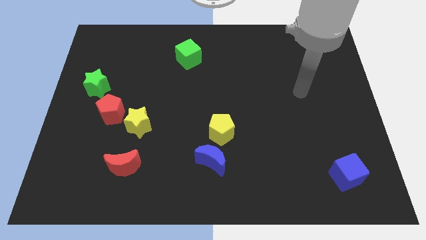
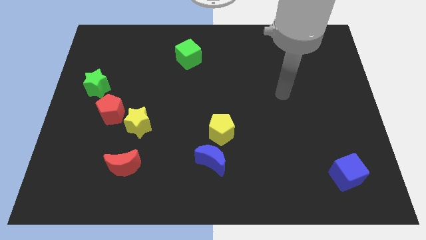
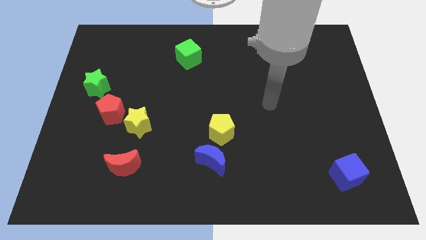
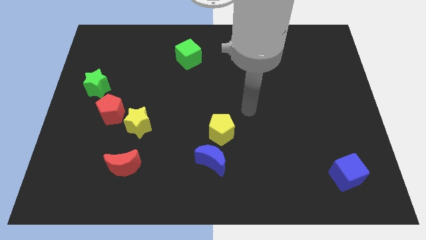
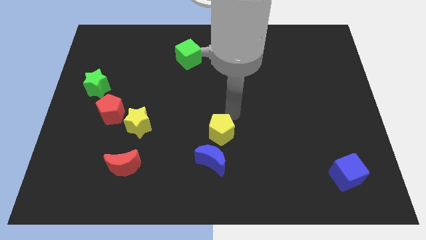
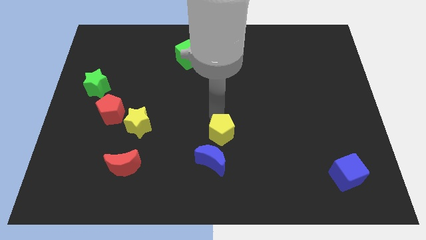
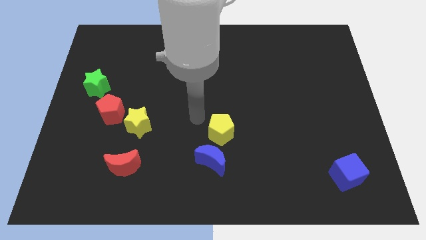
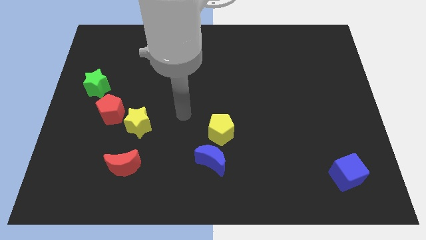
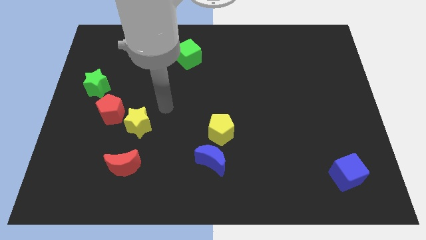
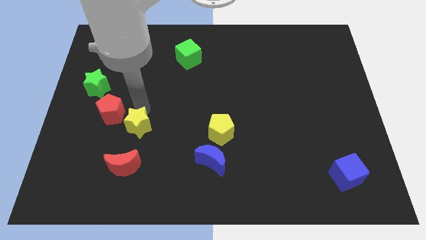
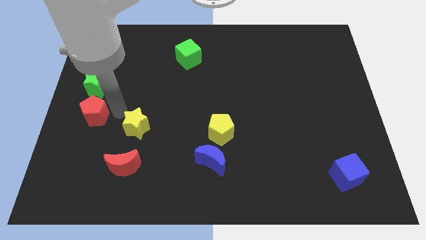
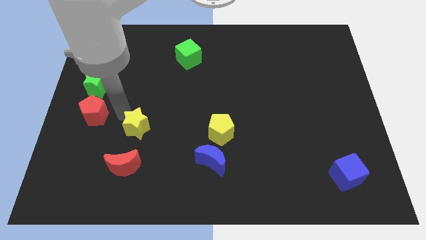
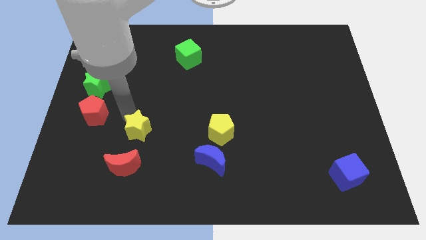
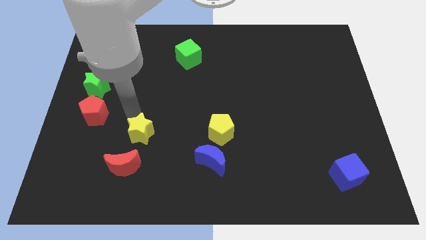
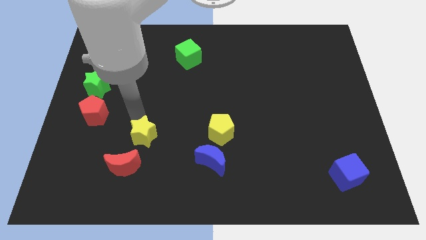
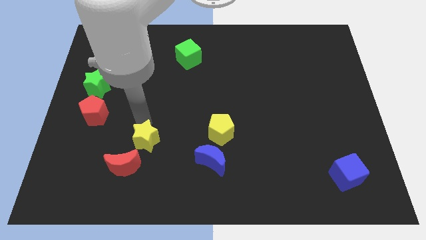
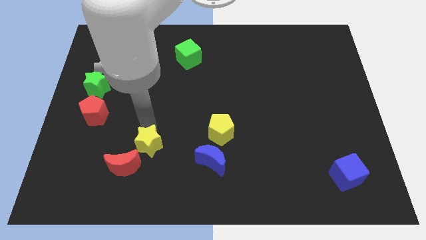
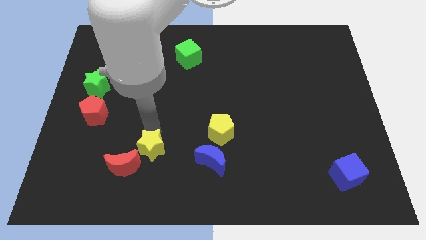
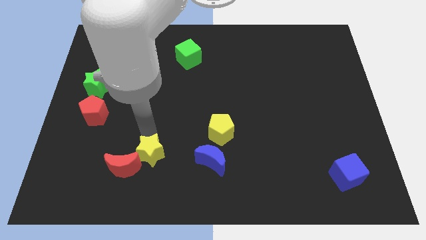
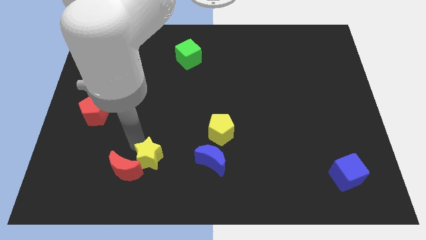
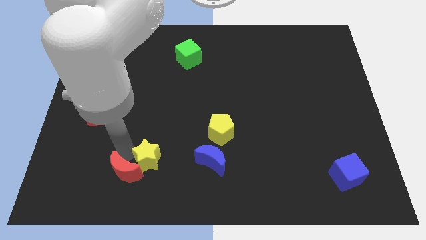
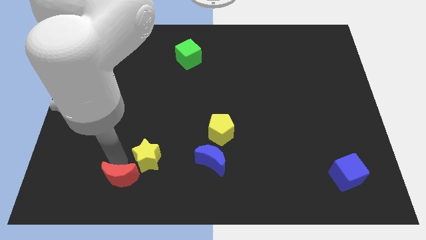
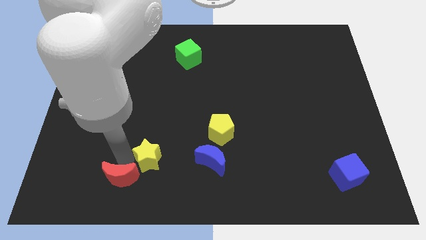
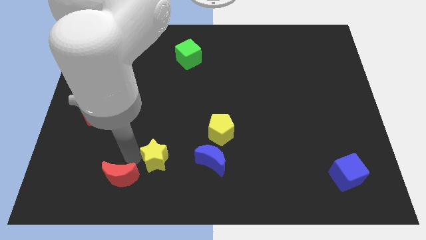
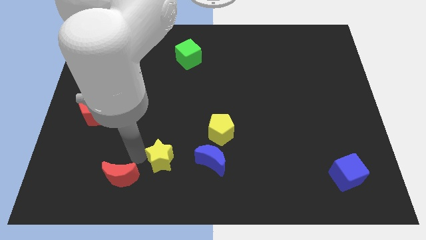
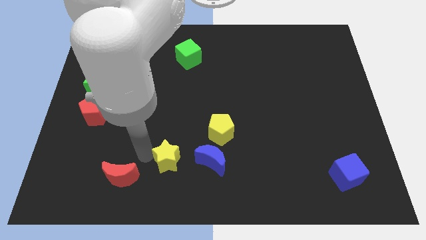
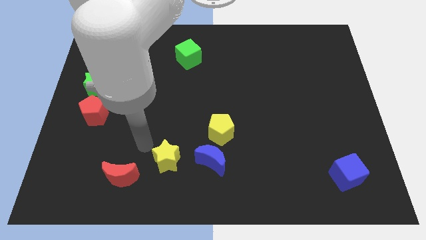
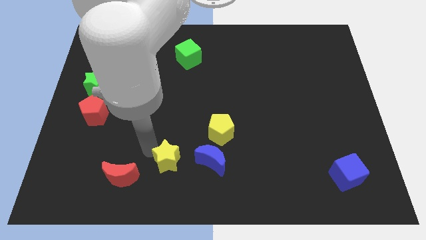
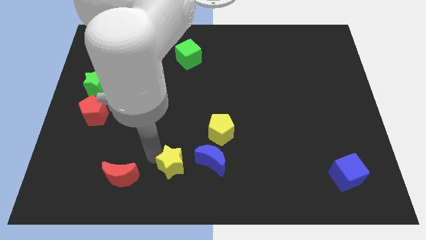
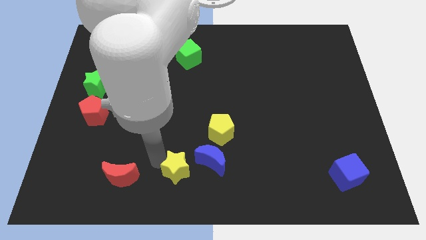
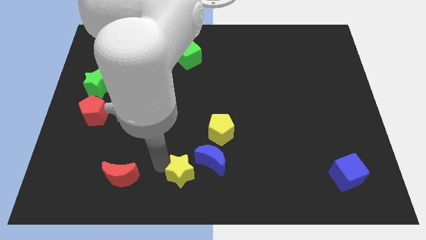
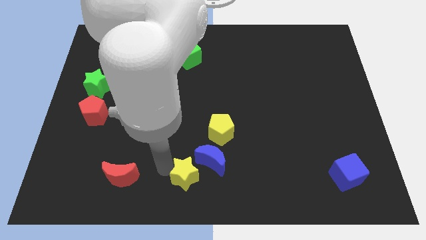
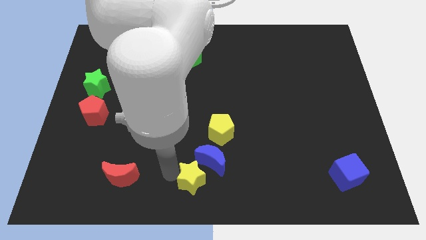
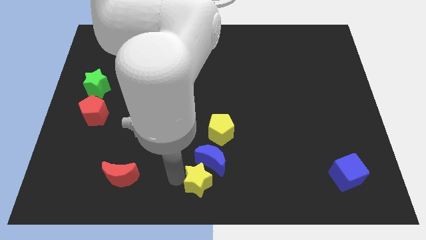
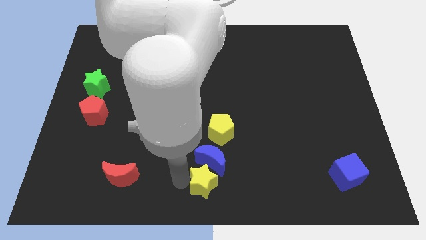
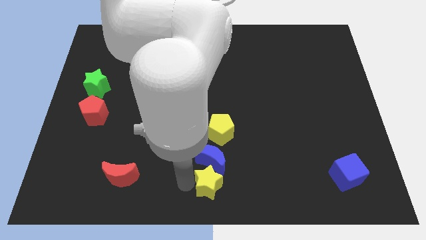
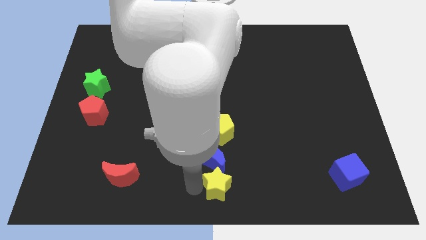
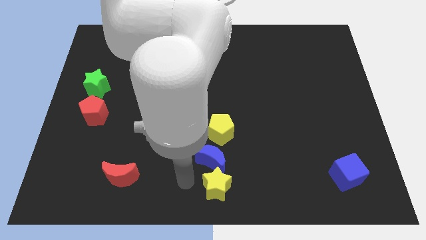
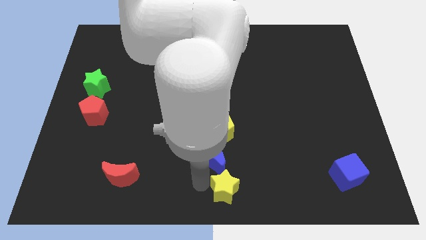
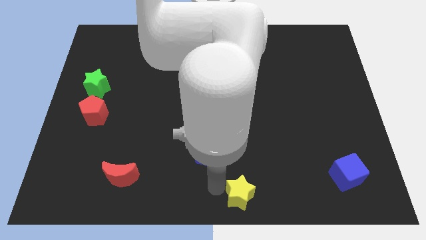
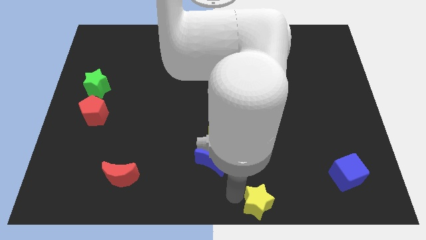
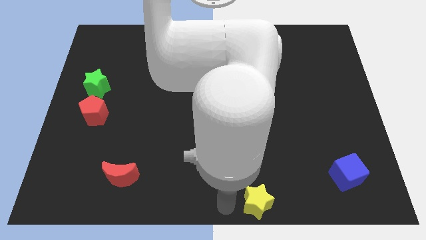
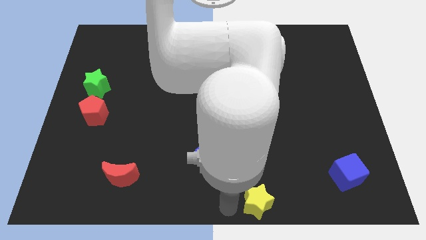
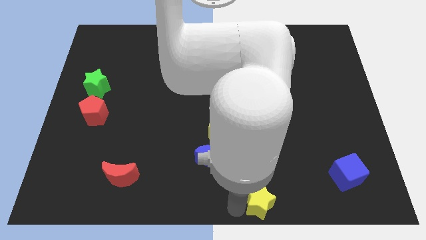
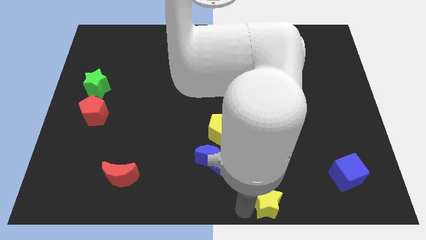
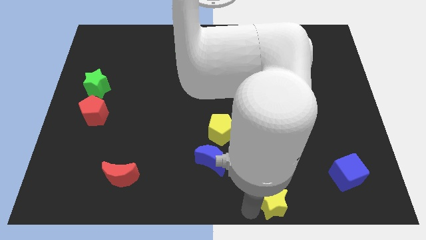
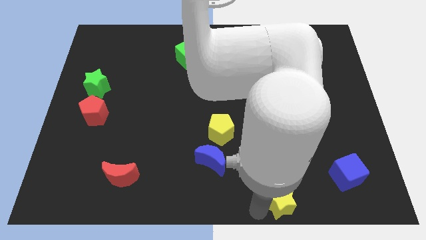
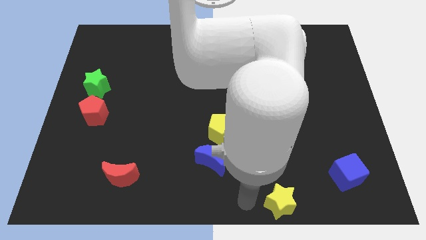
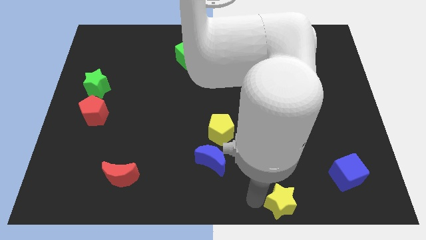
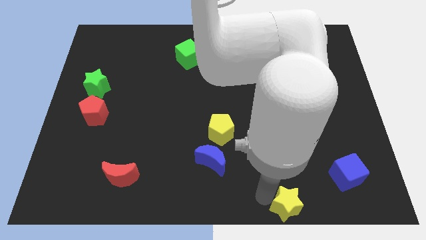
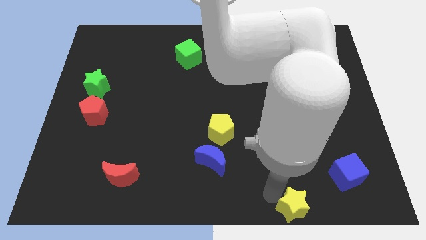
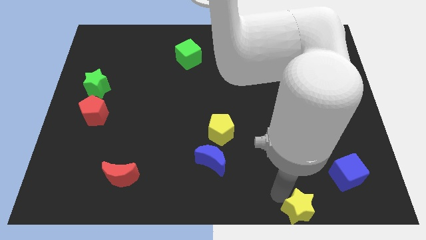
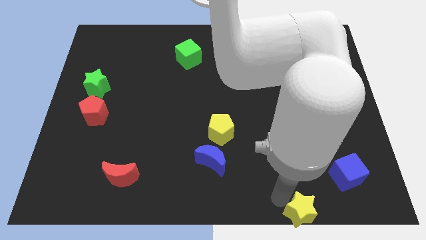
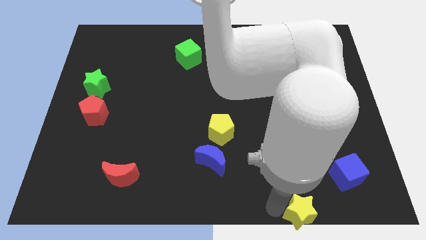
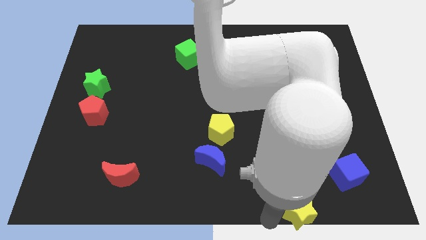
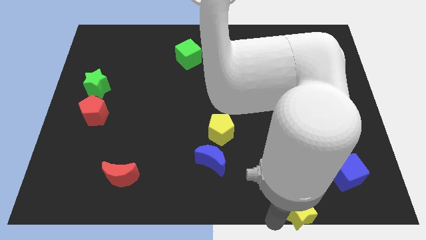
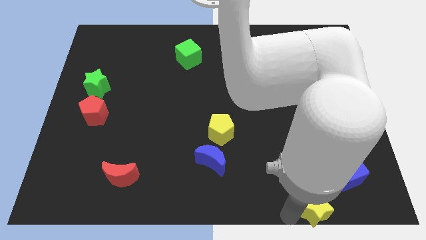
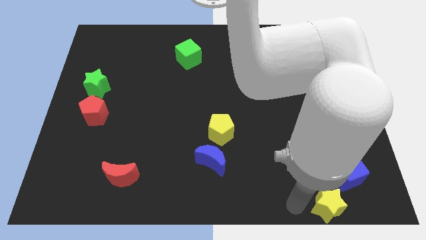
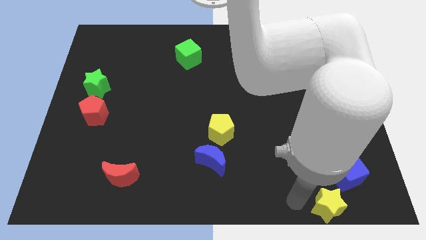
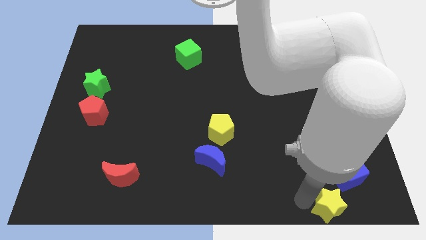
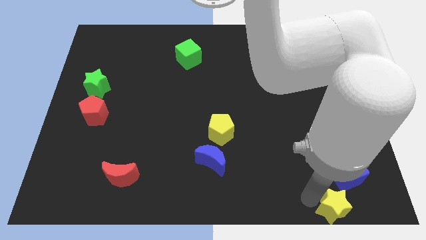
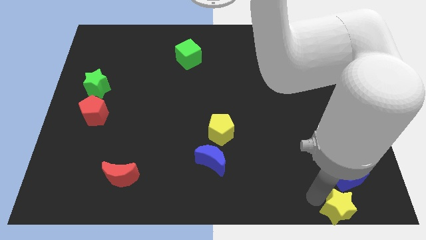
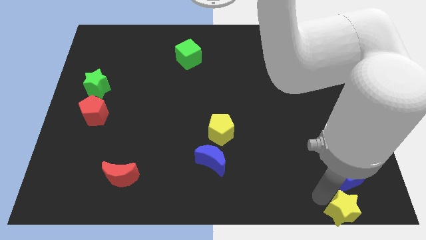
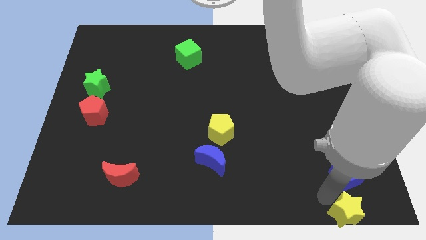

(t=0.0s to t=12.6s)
put the yellow star to the bottom right of the board
